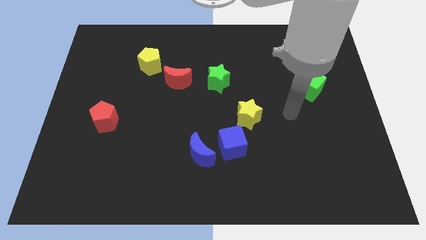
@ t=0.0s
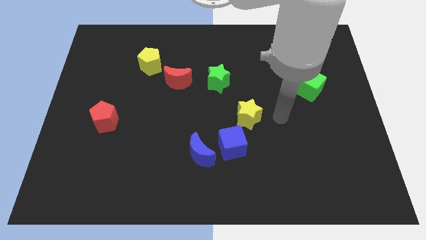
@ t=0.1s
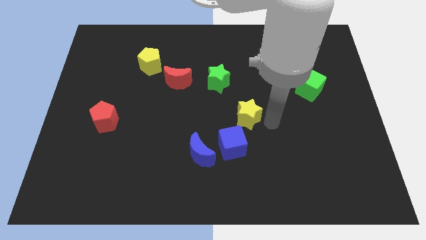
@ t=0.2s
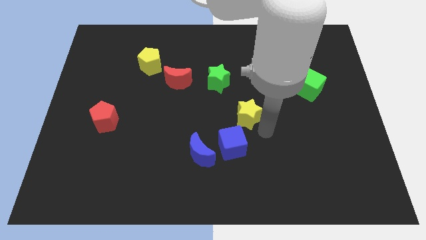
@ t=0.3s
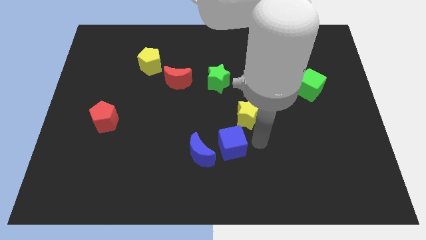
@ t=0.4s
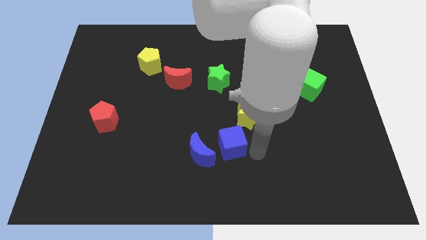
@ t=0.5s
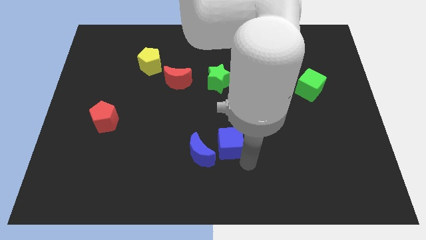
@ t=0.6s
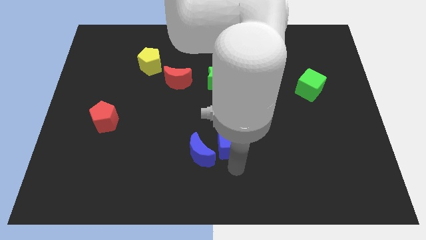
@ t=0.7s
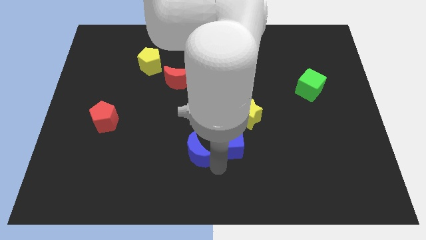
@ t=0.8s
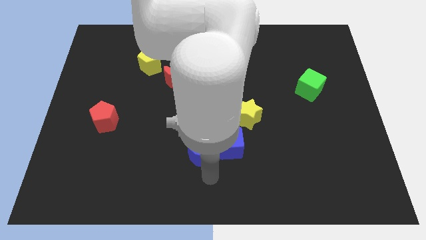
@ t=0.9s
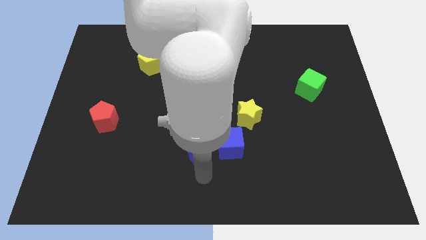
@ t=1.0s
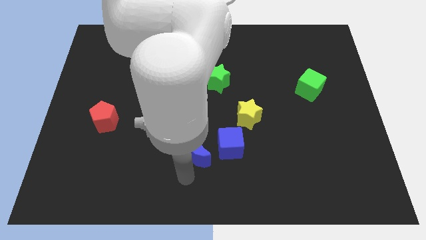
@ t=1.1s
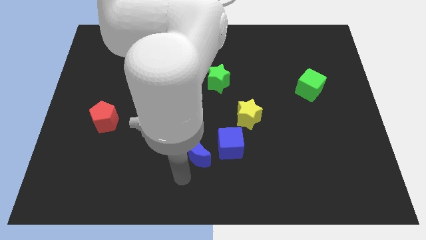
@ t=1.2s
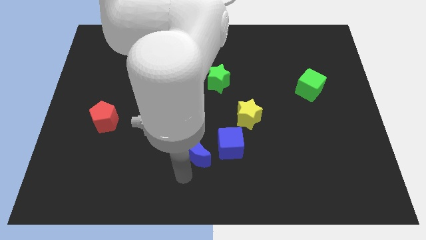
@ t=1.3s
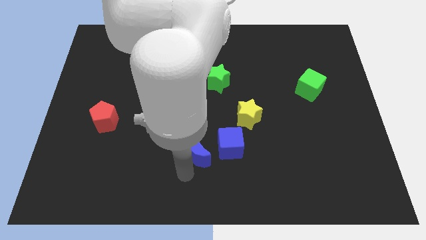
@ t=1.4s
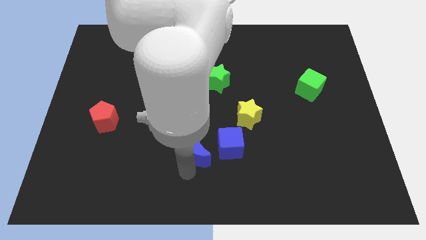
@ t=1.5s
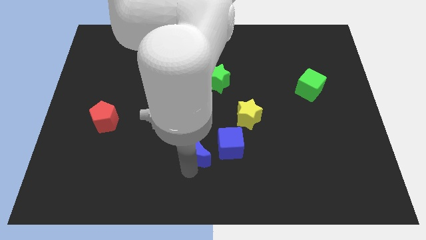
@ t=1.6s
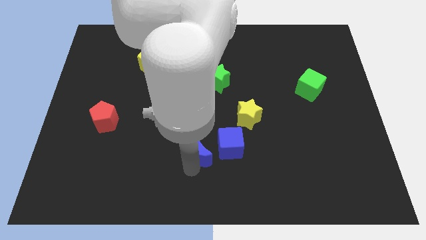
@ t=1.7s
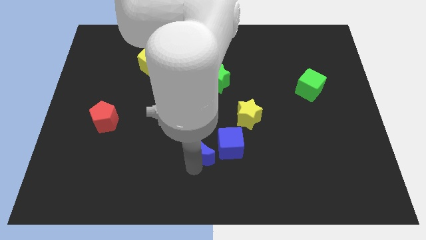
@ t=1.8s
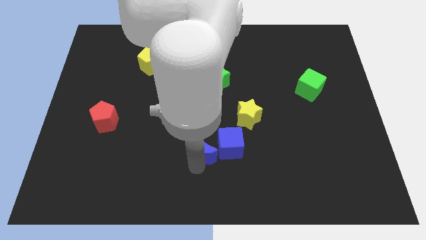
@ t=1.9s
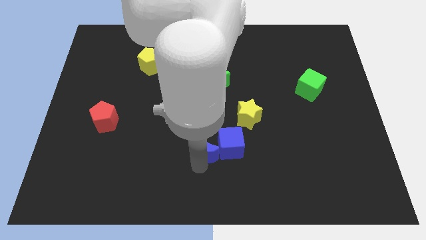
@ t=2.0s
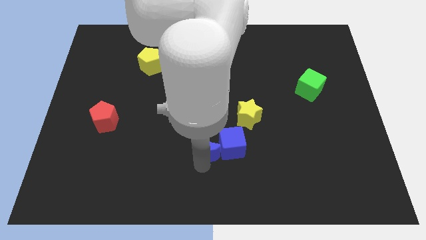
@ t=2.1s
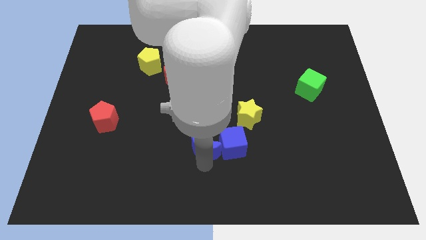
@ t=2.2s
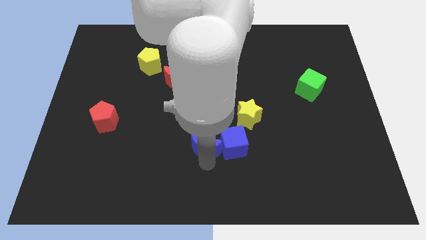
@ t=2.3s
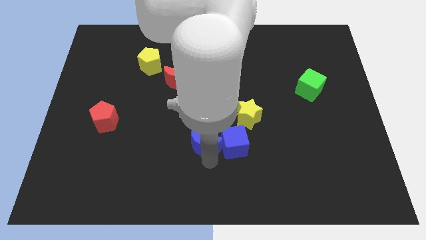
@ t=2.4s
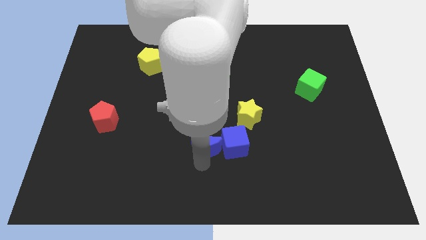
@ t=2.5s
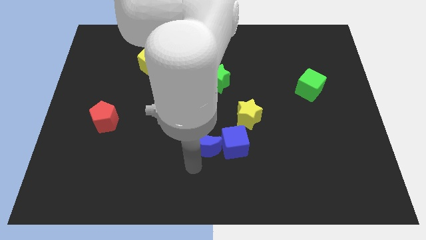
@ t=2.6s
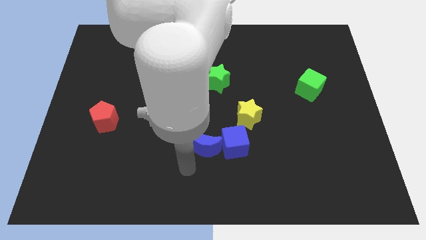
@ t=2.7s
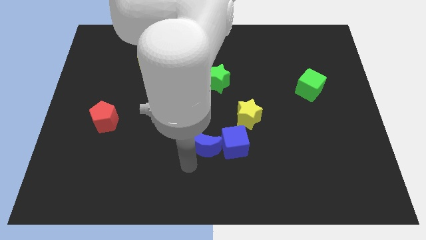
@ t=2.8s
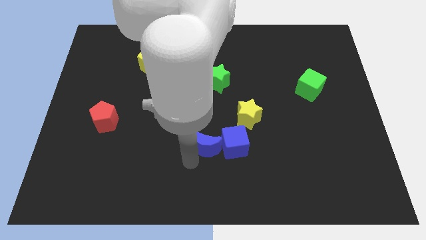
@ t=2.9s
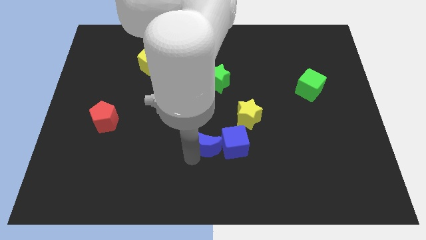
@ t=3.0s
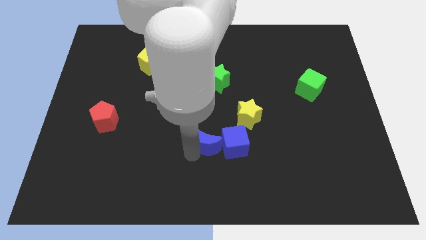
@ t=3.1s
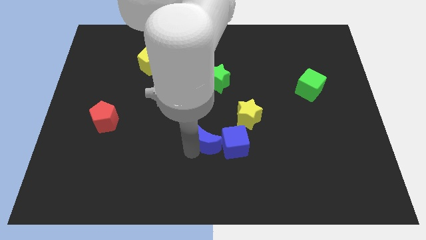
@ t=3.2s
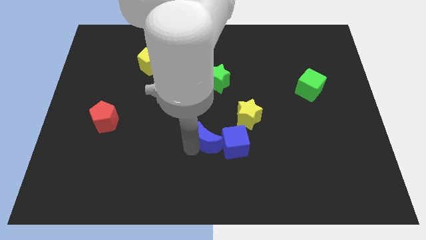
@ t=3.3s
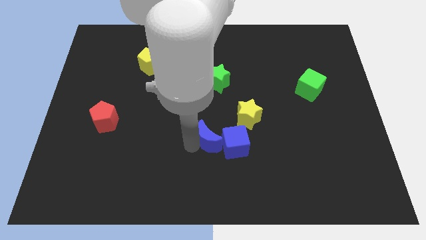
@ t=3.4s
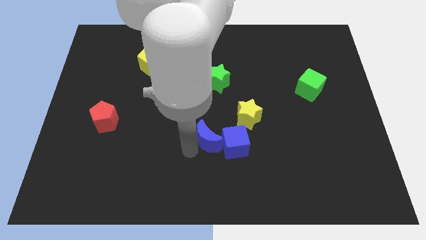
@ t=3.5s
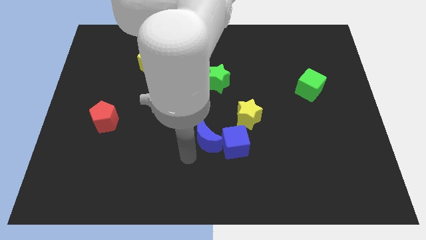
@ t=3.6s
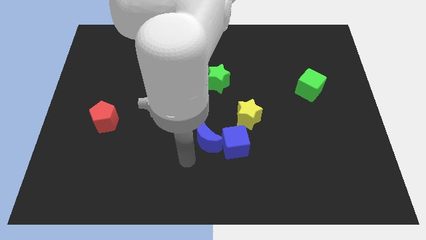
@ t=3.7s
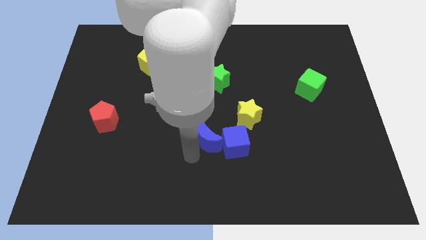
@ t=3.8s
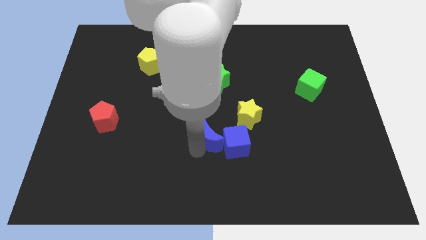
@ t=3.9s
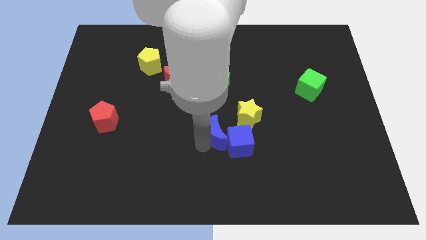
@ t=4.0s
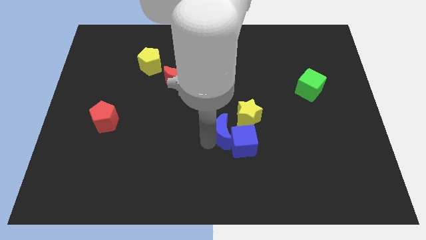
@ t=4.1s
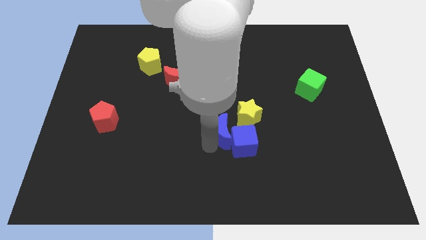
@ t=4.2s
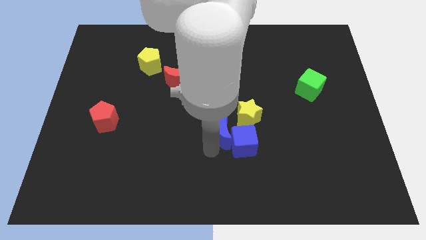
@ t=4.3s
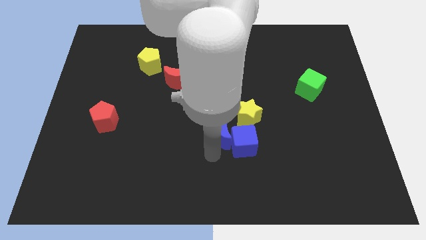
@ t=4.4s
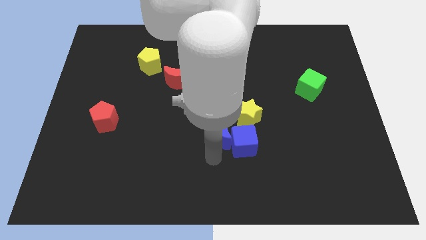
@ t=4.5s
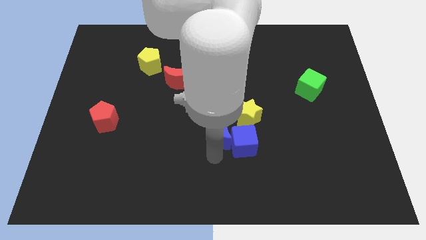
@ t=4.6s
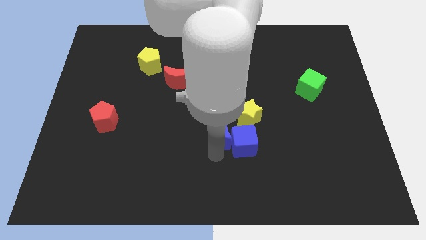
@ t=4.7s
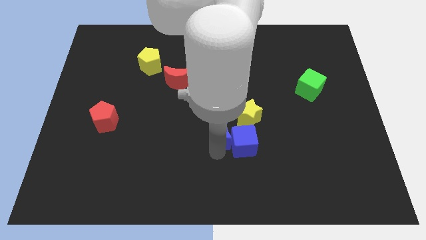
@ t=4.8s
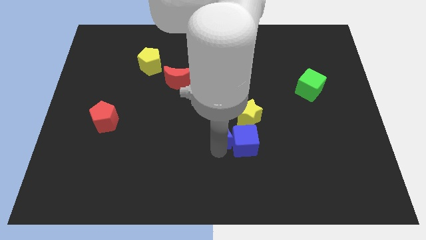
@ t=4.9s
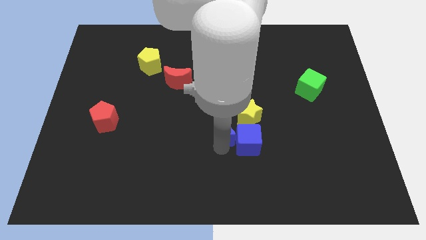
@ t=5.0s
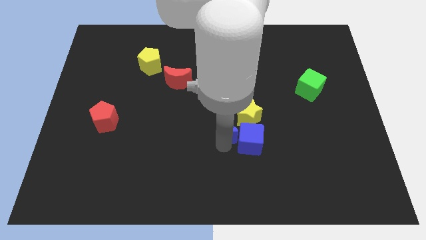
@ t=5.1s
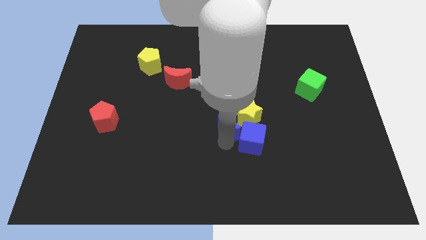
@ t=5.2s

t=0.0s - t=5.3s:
put the blue moon towards the yellow star

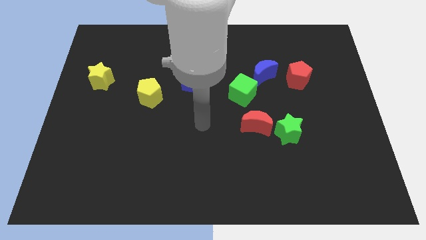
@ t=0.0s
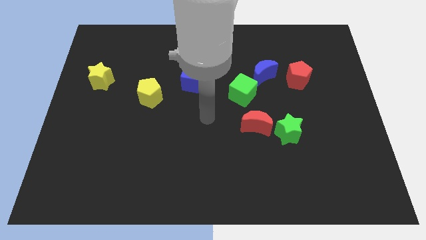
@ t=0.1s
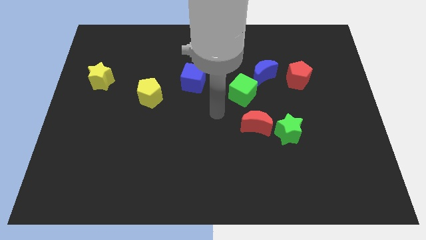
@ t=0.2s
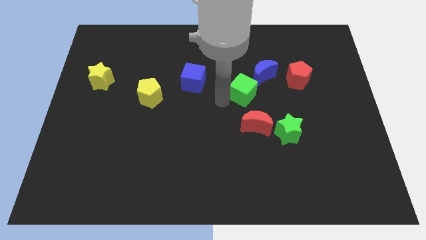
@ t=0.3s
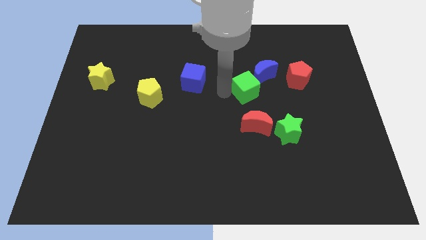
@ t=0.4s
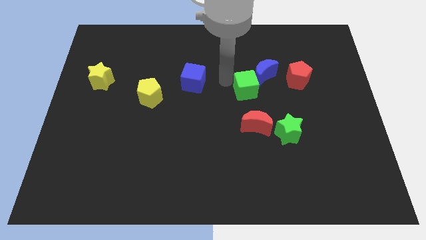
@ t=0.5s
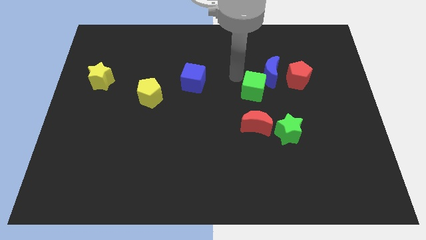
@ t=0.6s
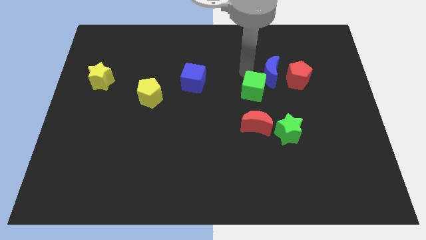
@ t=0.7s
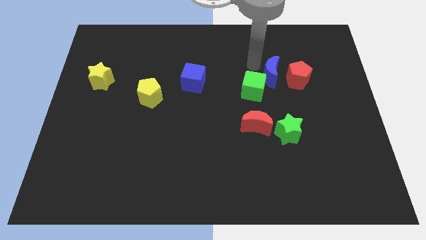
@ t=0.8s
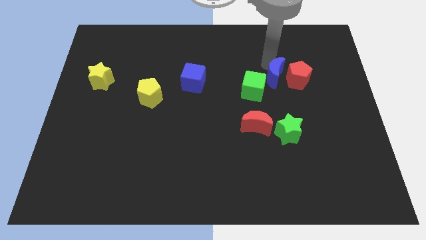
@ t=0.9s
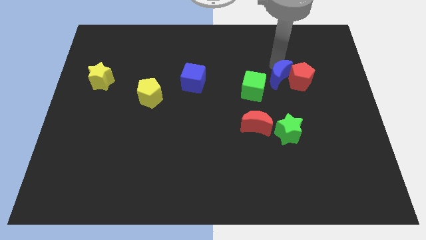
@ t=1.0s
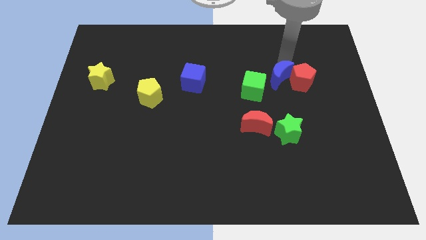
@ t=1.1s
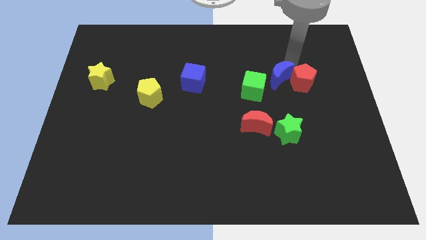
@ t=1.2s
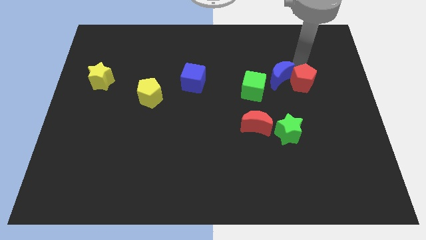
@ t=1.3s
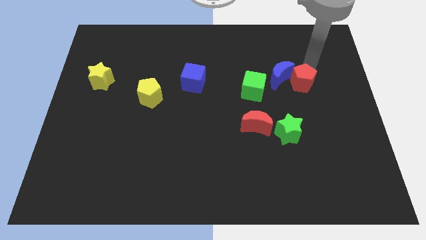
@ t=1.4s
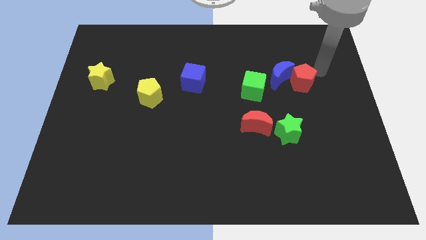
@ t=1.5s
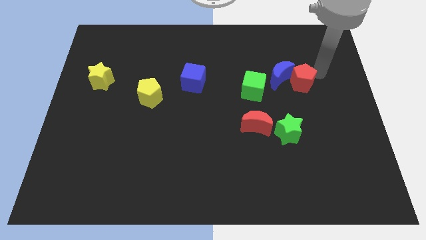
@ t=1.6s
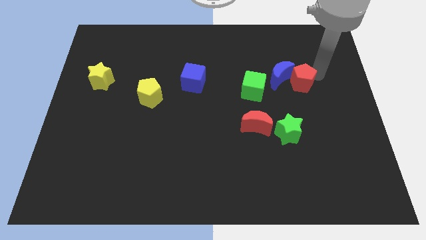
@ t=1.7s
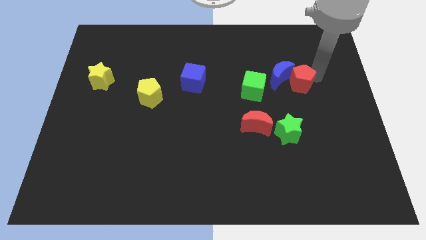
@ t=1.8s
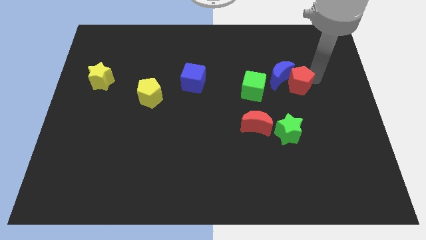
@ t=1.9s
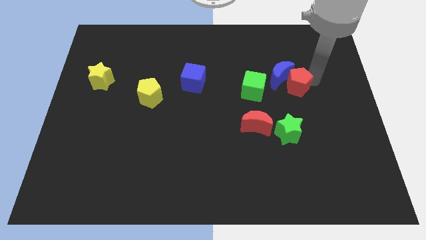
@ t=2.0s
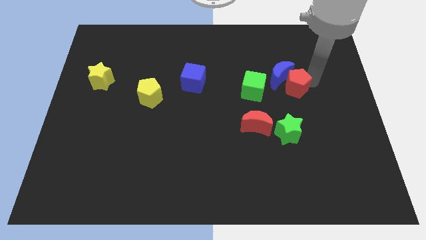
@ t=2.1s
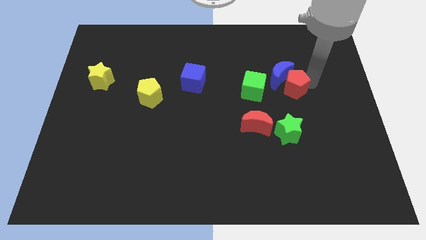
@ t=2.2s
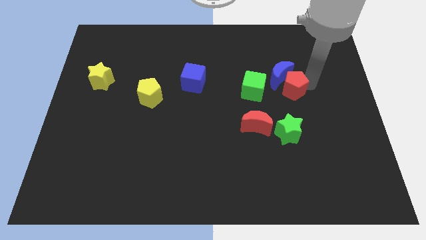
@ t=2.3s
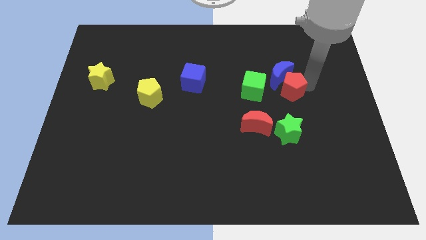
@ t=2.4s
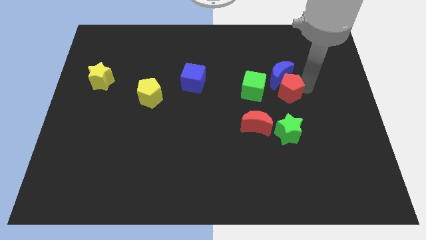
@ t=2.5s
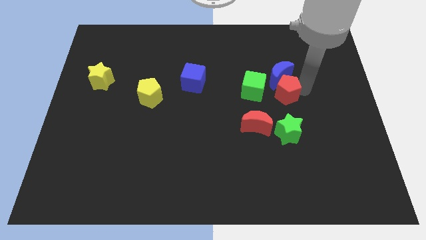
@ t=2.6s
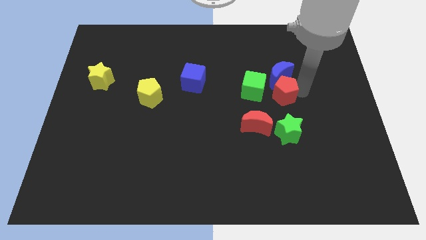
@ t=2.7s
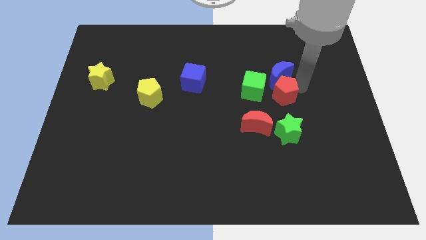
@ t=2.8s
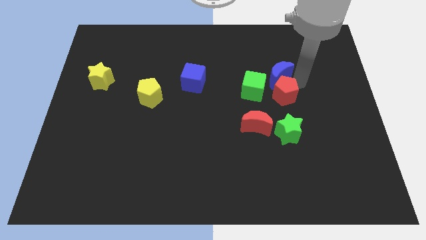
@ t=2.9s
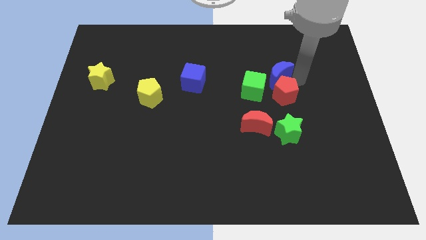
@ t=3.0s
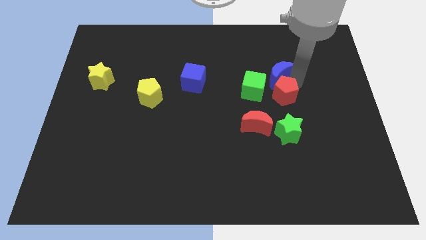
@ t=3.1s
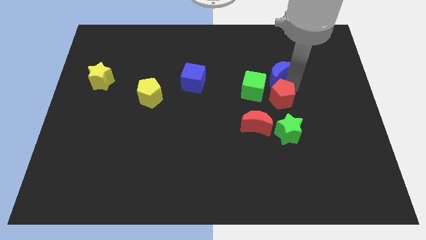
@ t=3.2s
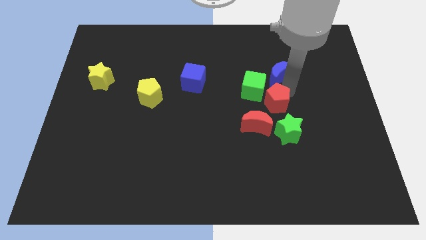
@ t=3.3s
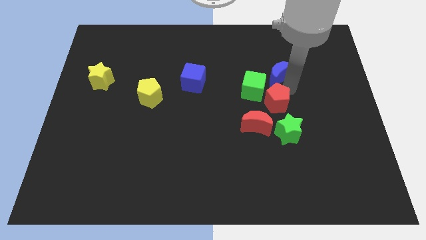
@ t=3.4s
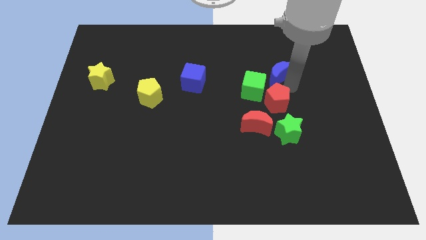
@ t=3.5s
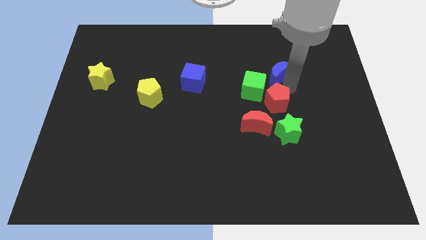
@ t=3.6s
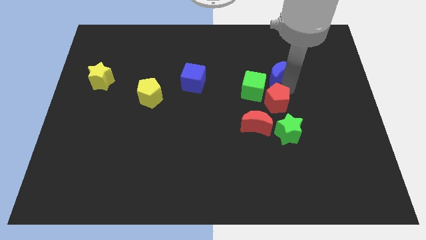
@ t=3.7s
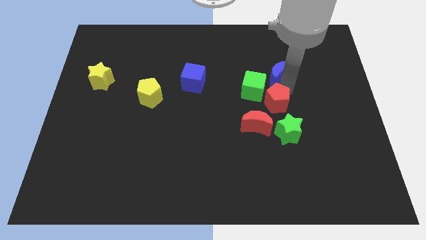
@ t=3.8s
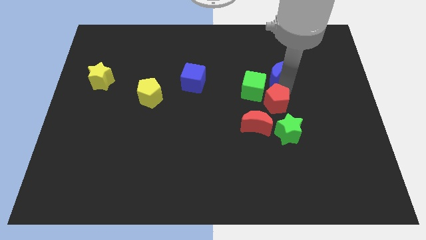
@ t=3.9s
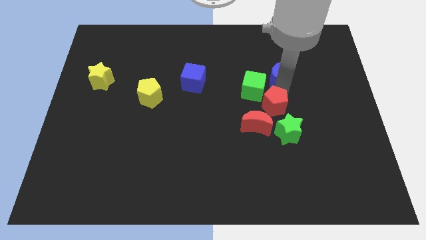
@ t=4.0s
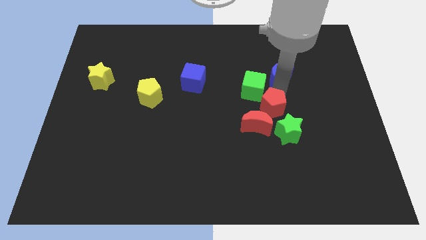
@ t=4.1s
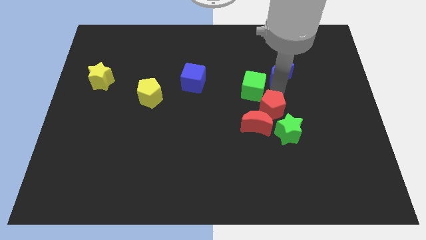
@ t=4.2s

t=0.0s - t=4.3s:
slide the red pentagon close to the red moon
